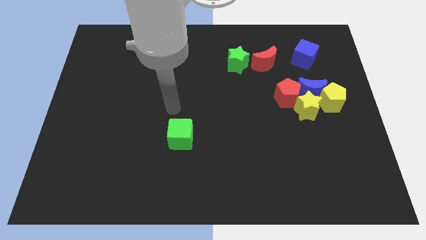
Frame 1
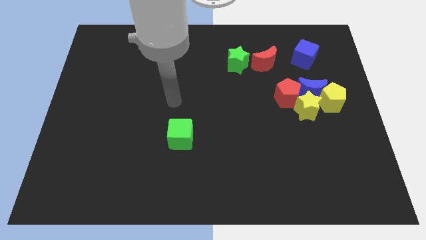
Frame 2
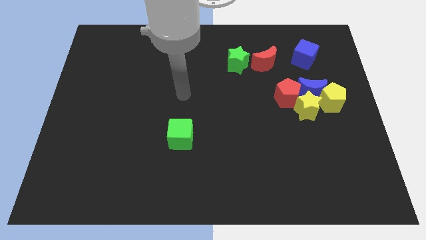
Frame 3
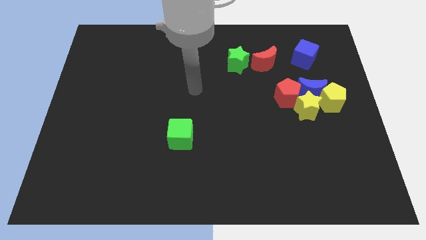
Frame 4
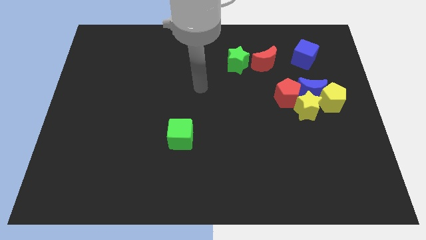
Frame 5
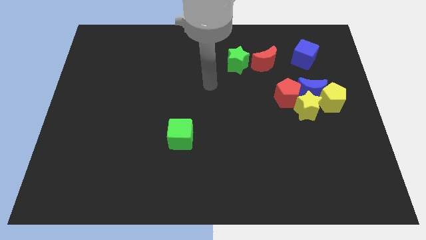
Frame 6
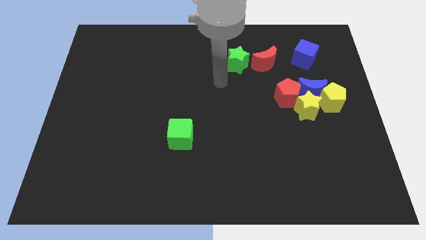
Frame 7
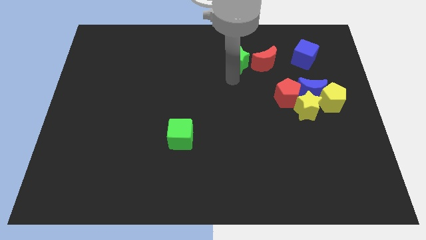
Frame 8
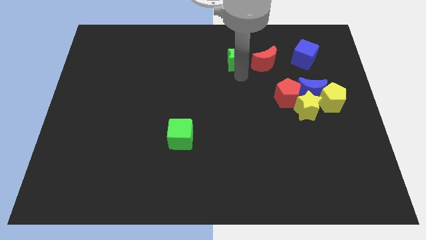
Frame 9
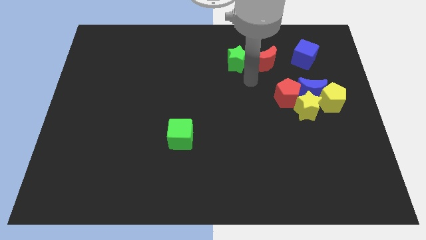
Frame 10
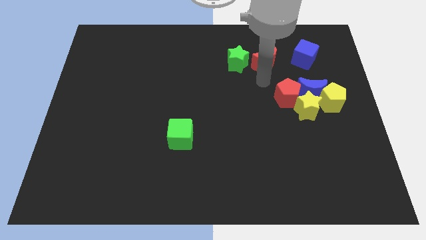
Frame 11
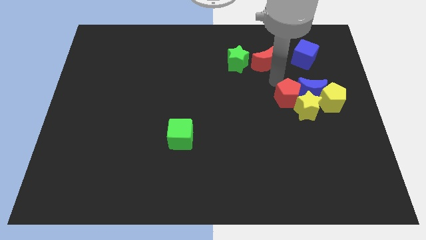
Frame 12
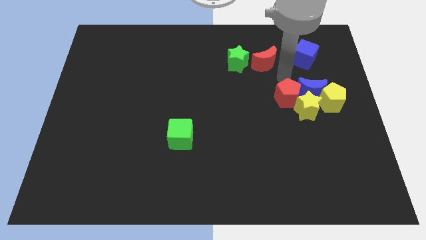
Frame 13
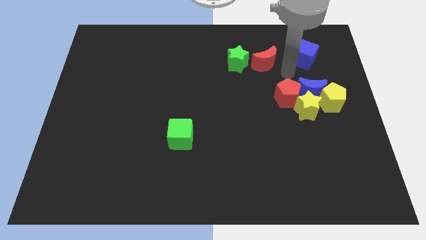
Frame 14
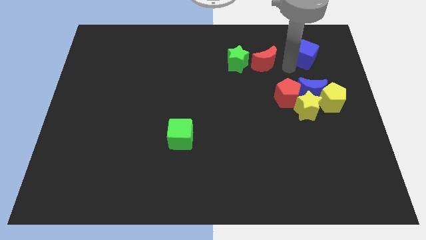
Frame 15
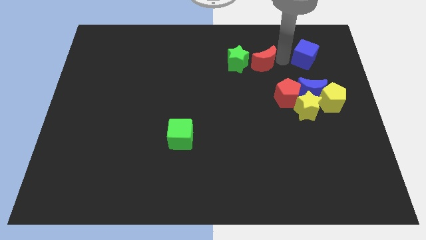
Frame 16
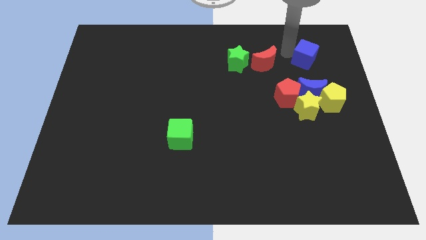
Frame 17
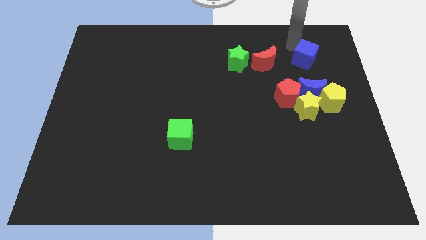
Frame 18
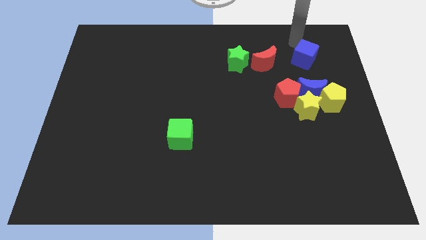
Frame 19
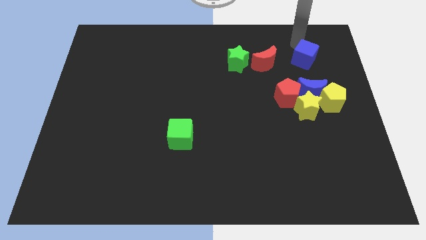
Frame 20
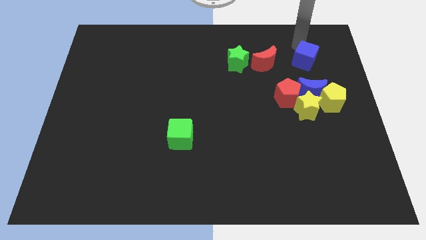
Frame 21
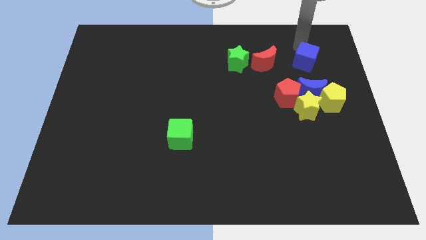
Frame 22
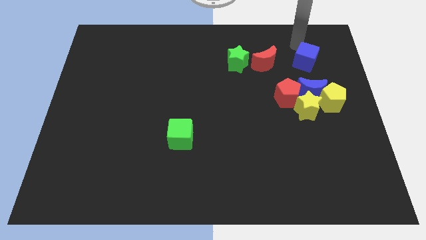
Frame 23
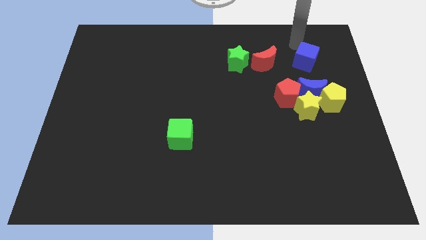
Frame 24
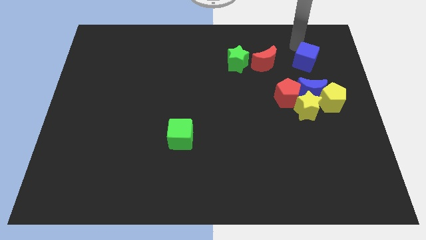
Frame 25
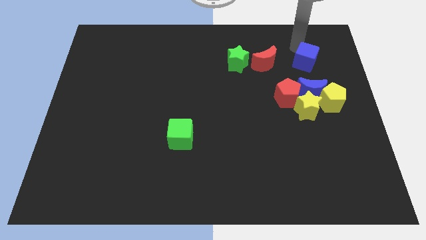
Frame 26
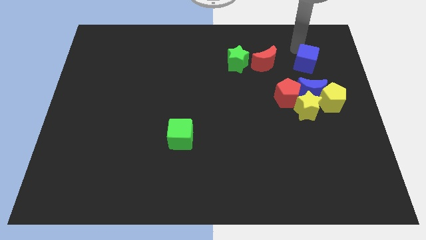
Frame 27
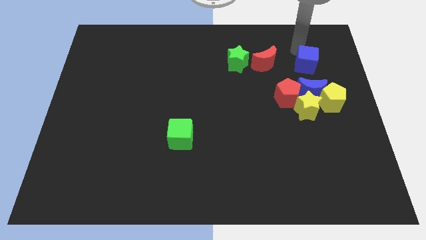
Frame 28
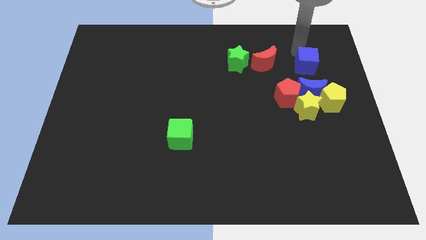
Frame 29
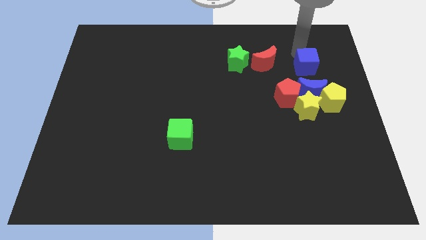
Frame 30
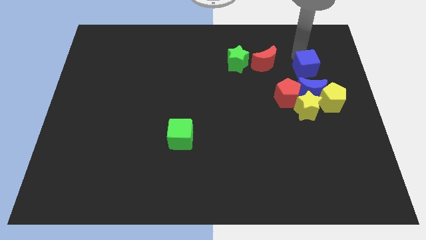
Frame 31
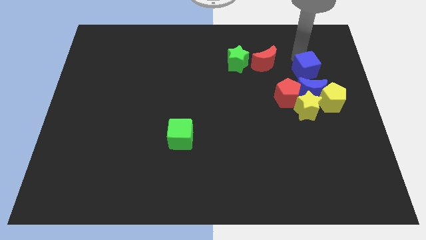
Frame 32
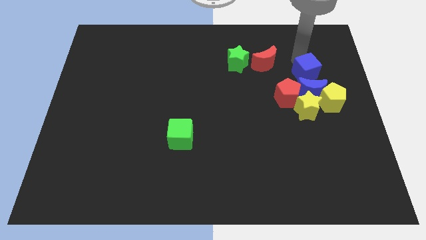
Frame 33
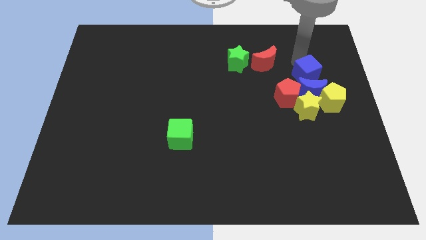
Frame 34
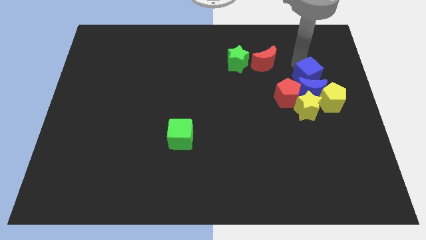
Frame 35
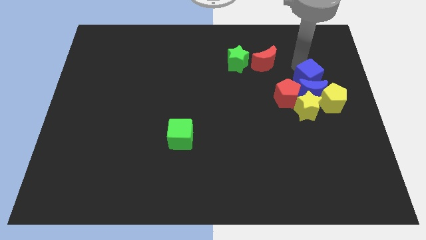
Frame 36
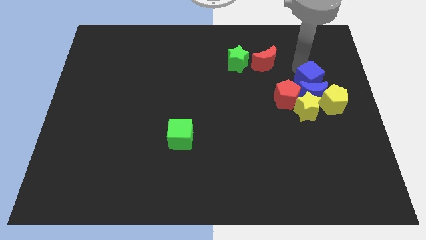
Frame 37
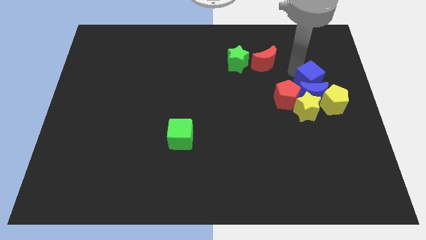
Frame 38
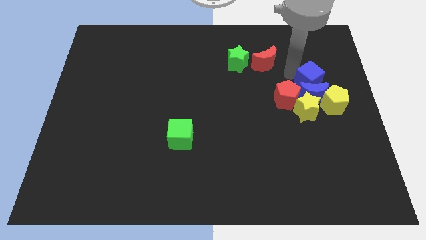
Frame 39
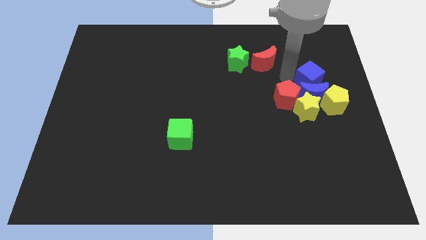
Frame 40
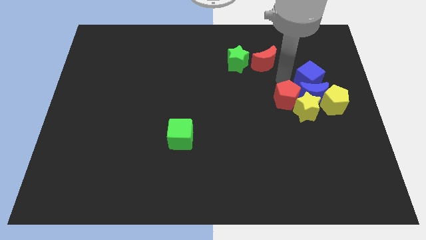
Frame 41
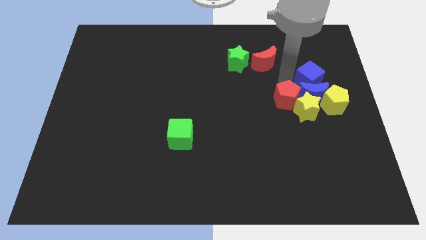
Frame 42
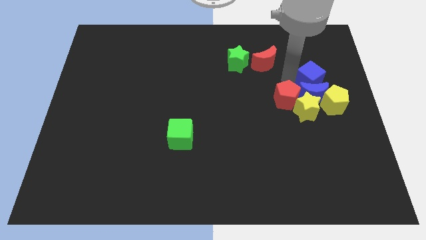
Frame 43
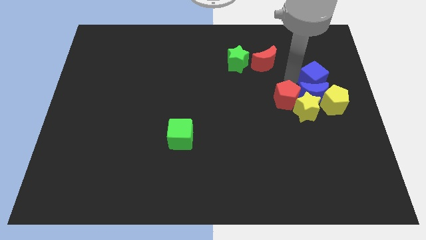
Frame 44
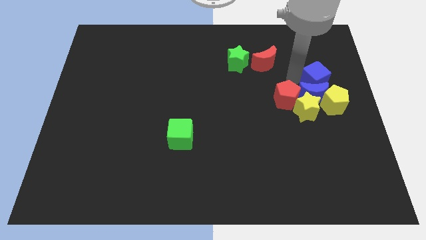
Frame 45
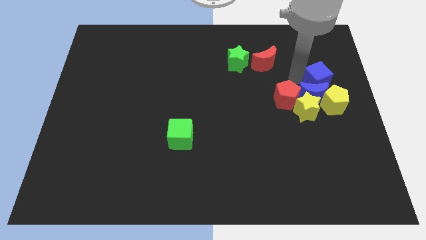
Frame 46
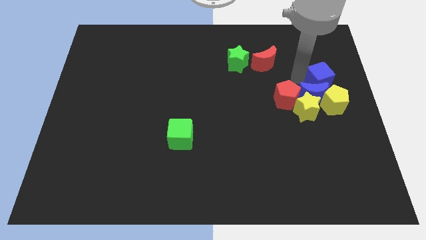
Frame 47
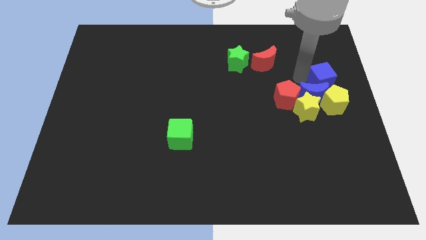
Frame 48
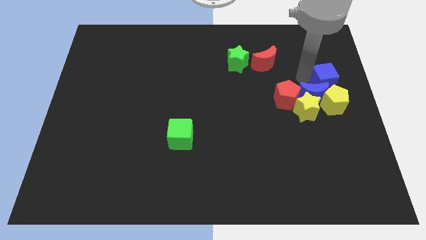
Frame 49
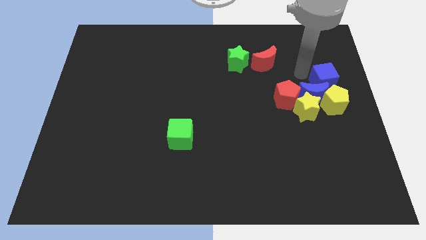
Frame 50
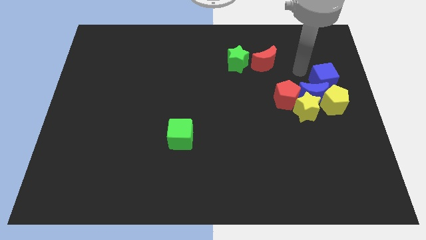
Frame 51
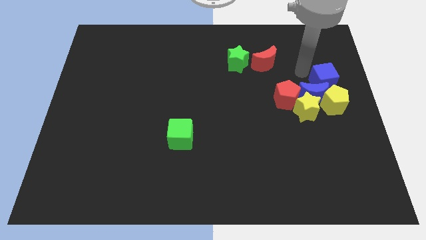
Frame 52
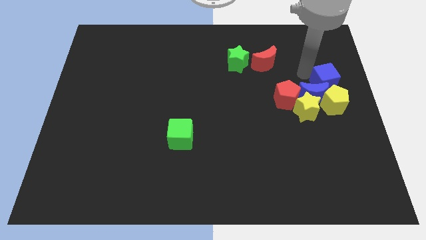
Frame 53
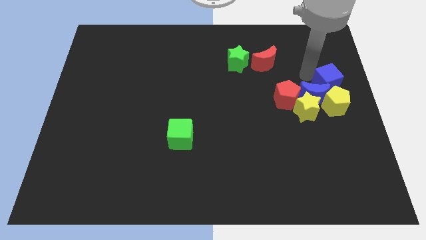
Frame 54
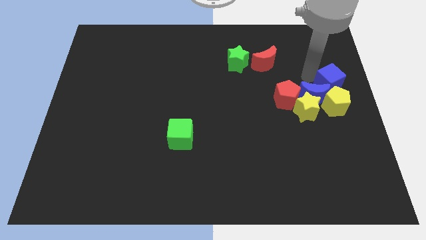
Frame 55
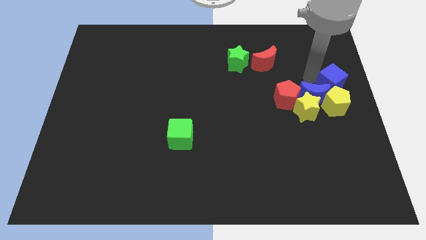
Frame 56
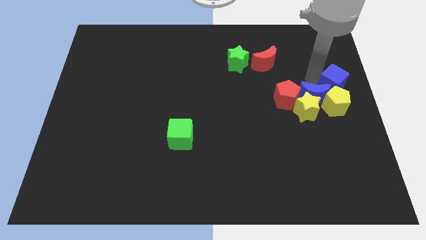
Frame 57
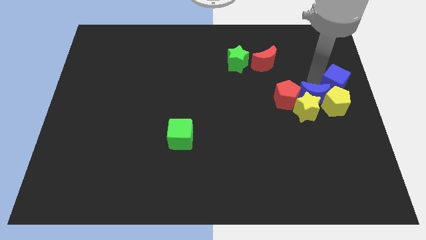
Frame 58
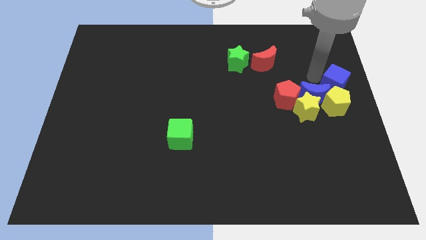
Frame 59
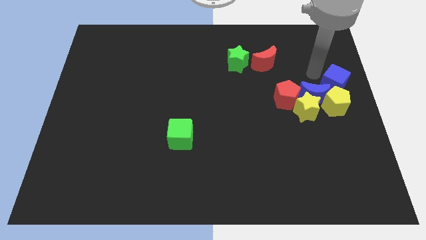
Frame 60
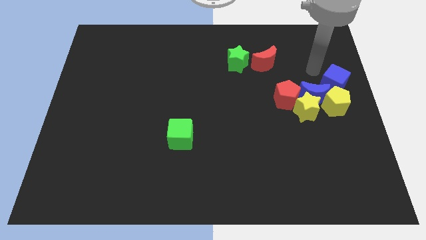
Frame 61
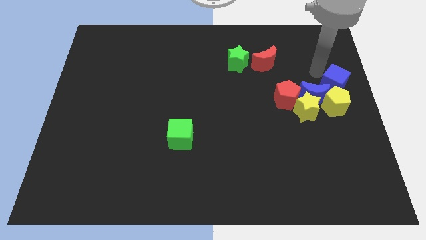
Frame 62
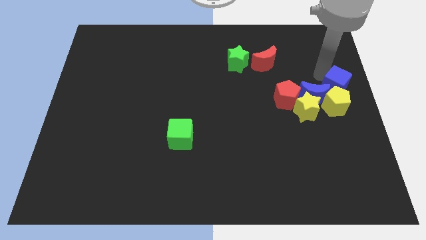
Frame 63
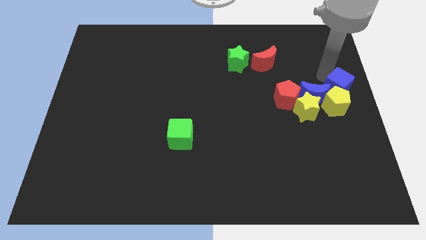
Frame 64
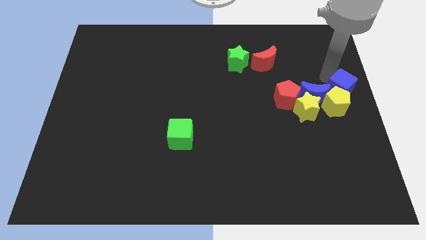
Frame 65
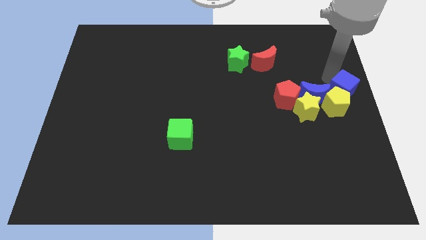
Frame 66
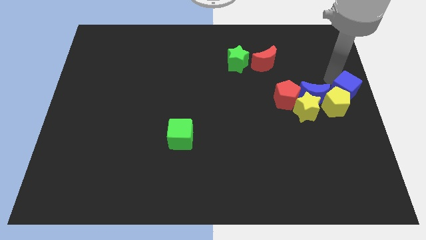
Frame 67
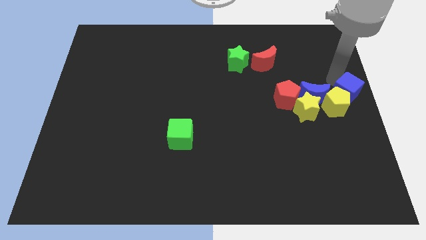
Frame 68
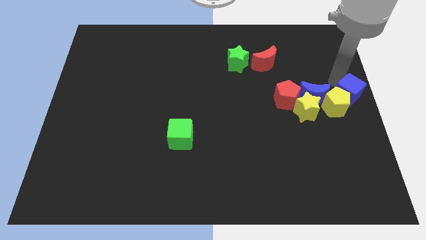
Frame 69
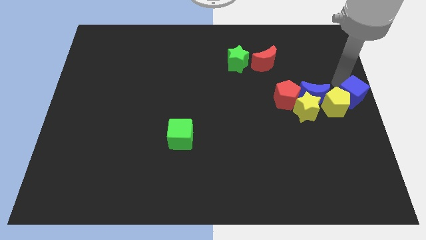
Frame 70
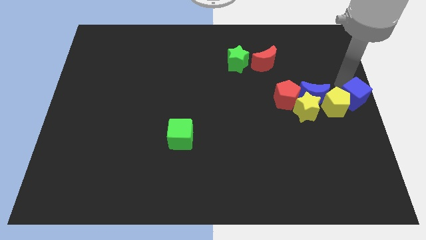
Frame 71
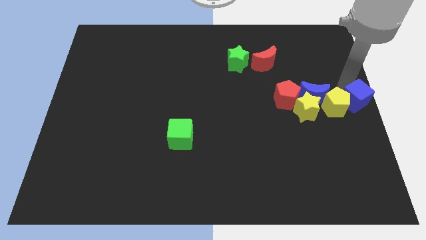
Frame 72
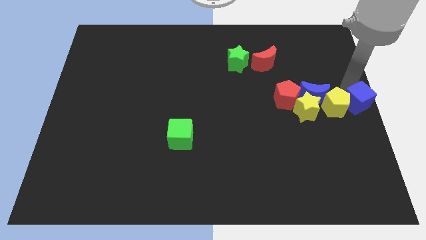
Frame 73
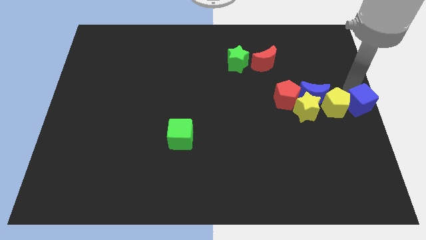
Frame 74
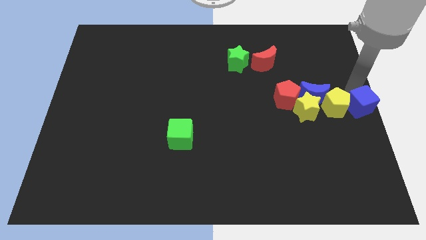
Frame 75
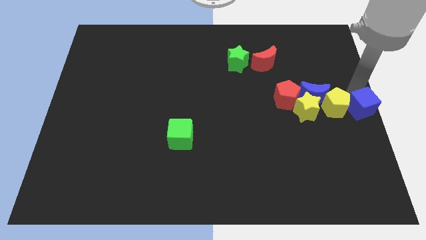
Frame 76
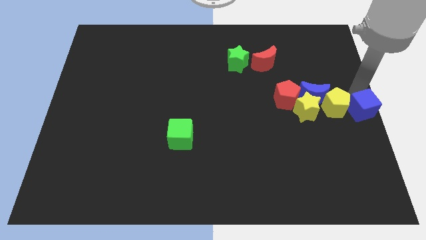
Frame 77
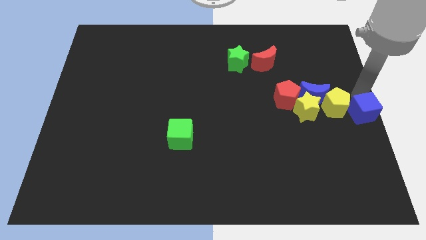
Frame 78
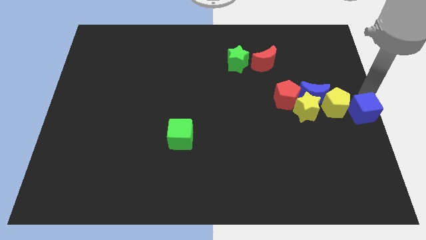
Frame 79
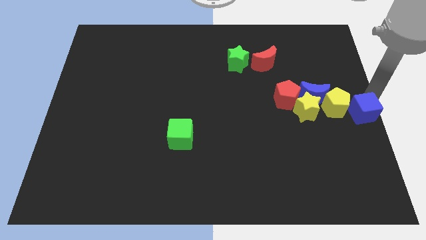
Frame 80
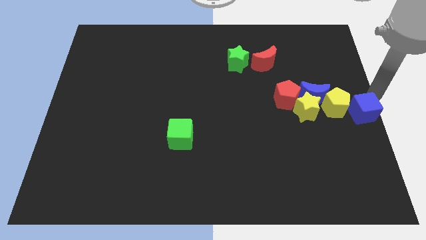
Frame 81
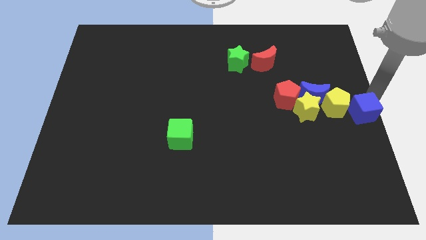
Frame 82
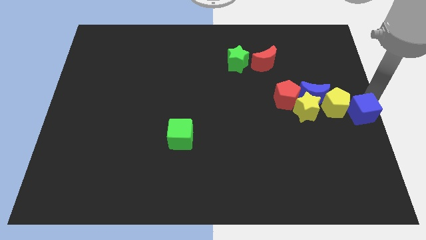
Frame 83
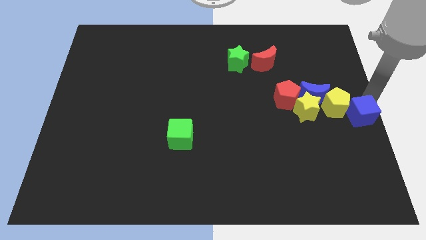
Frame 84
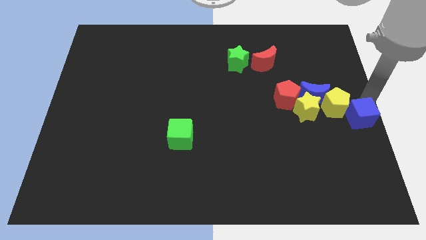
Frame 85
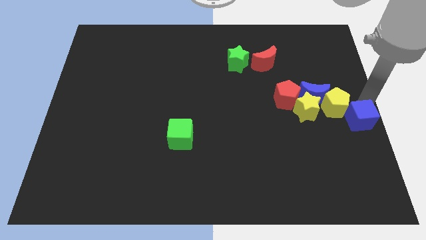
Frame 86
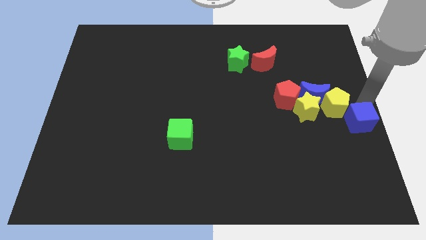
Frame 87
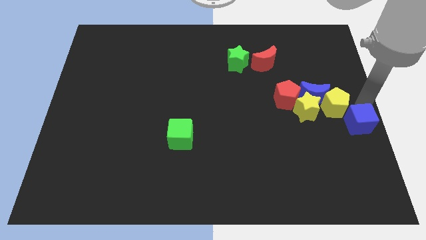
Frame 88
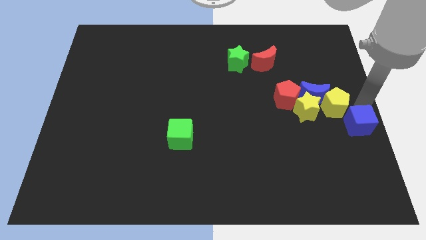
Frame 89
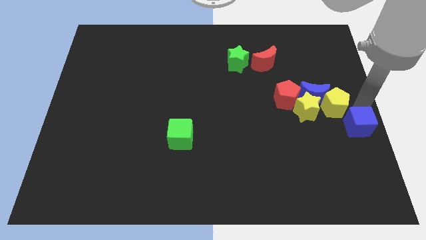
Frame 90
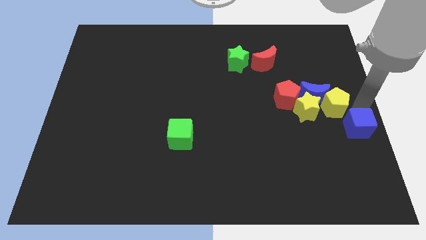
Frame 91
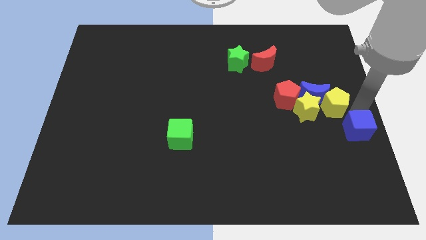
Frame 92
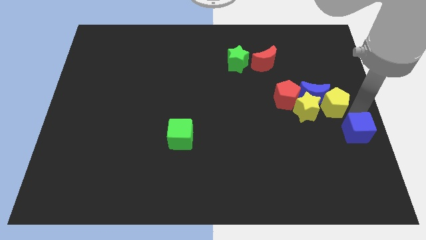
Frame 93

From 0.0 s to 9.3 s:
move the blue cube down
